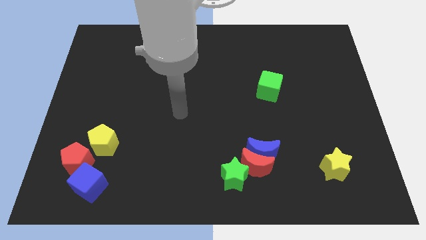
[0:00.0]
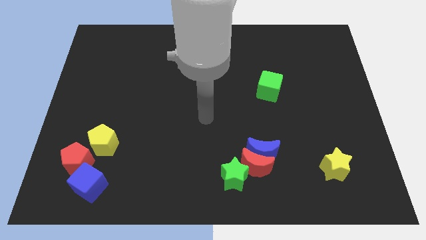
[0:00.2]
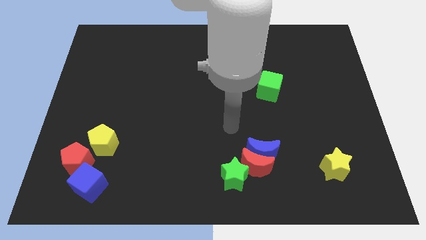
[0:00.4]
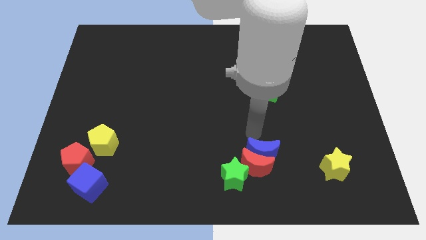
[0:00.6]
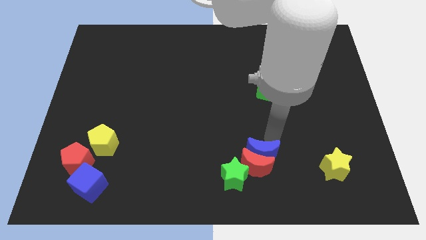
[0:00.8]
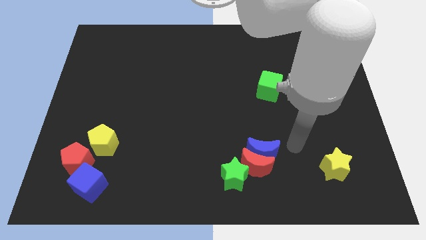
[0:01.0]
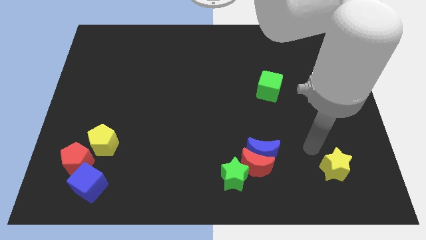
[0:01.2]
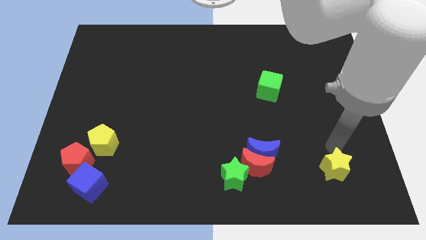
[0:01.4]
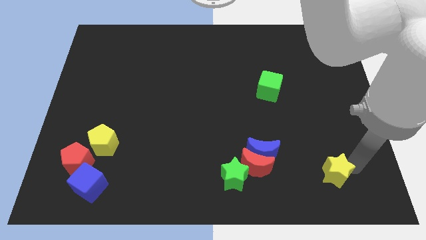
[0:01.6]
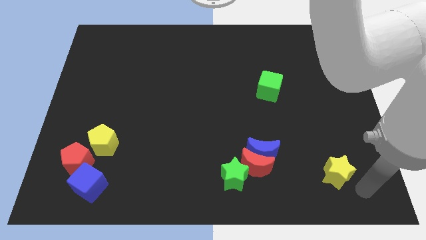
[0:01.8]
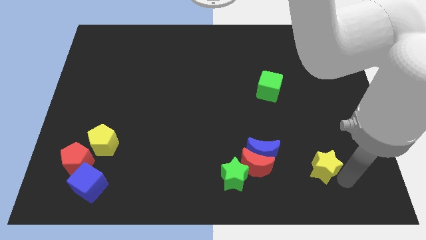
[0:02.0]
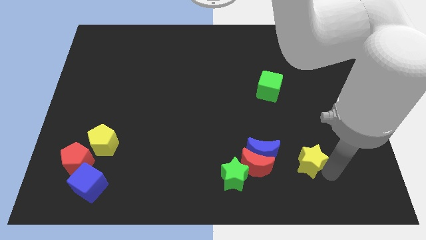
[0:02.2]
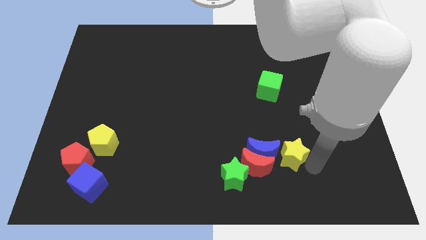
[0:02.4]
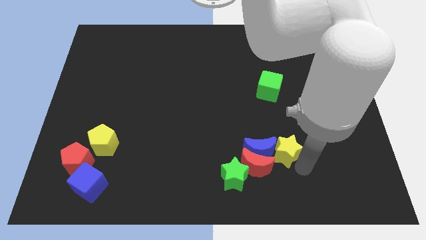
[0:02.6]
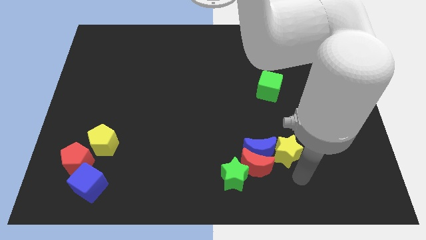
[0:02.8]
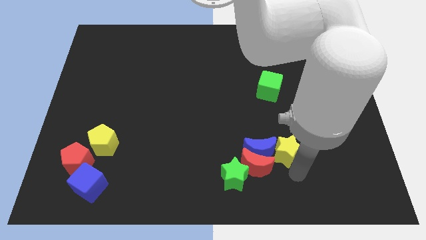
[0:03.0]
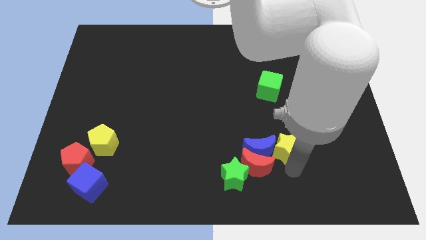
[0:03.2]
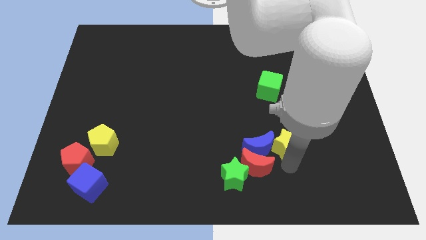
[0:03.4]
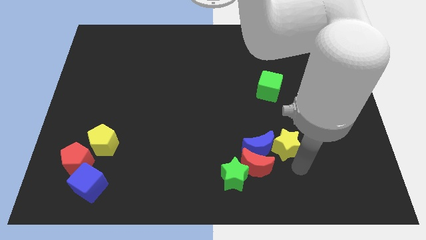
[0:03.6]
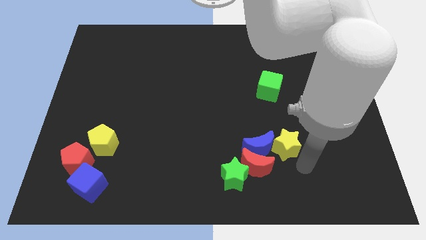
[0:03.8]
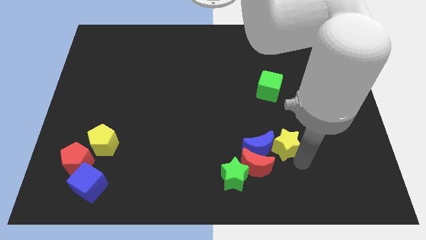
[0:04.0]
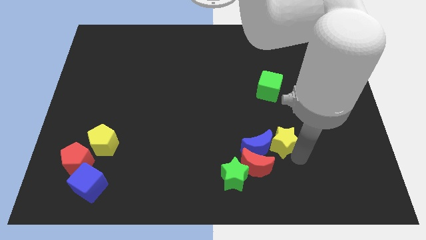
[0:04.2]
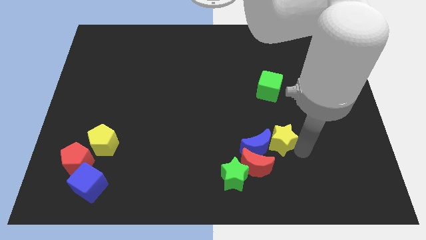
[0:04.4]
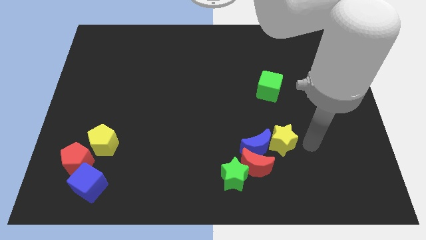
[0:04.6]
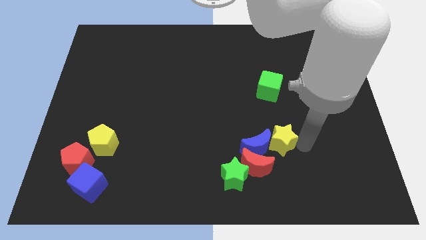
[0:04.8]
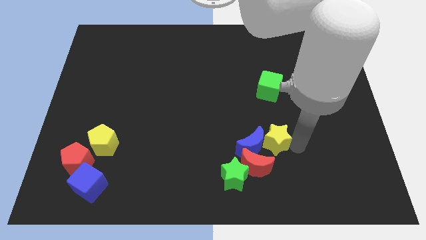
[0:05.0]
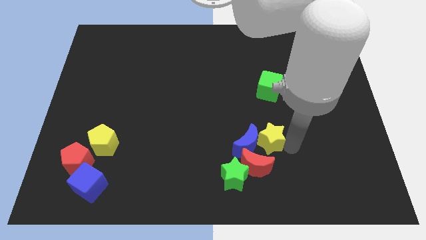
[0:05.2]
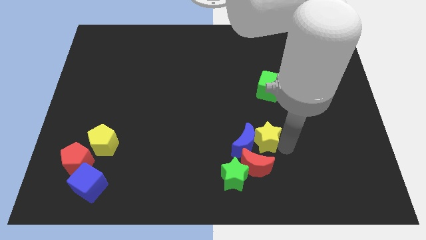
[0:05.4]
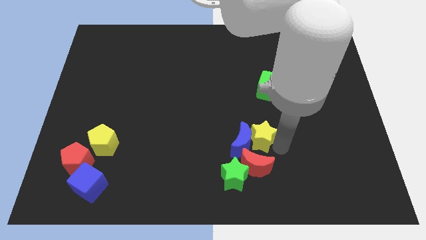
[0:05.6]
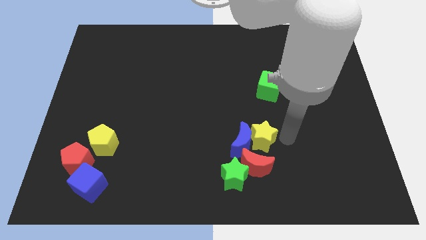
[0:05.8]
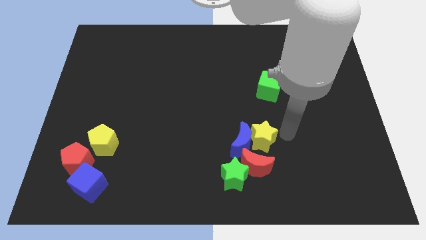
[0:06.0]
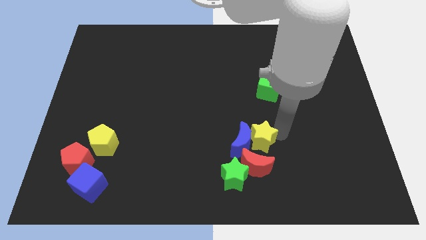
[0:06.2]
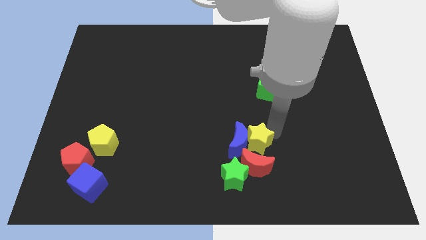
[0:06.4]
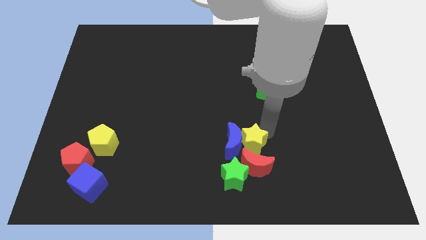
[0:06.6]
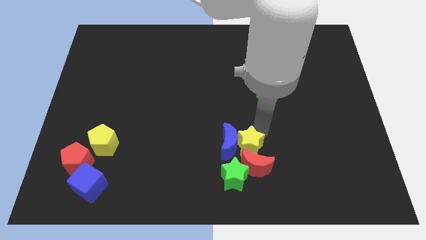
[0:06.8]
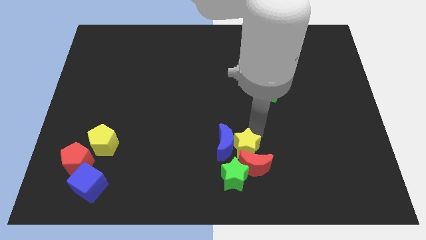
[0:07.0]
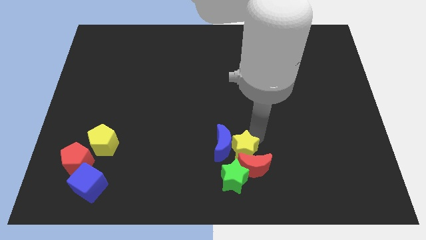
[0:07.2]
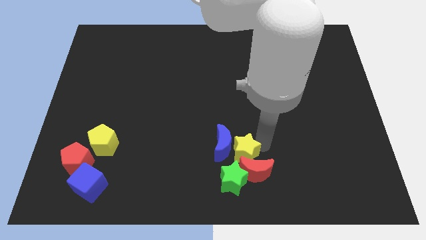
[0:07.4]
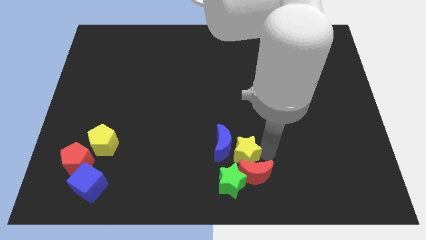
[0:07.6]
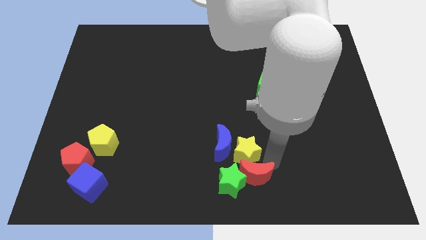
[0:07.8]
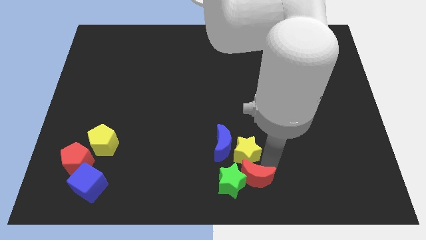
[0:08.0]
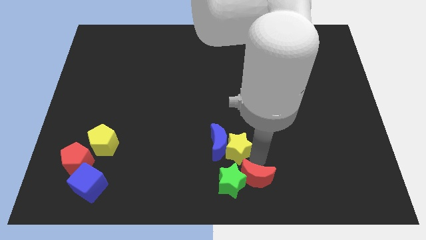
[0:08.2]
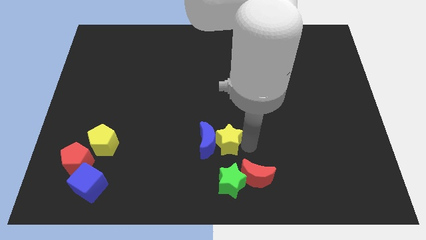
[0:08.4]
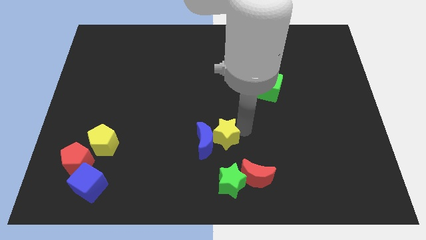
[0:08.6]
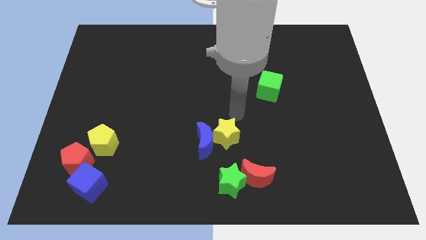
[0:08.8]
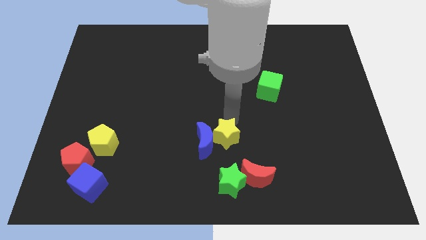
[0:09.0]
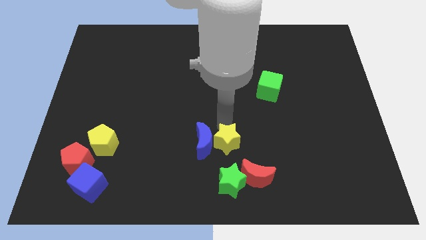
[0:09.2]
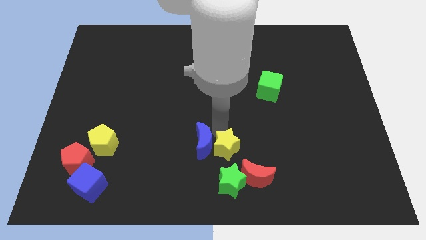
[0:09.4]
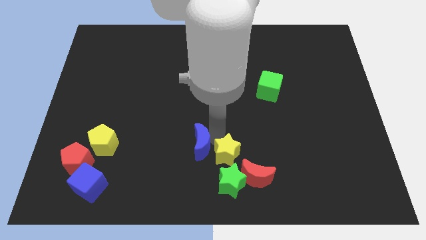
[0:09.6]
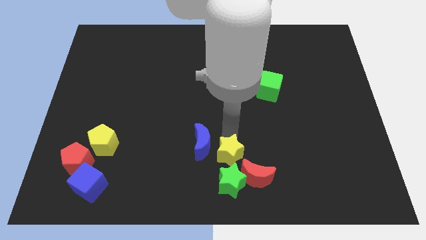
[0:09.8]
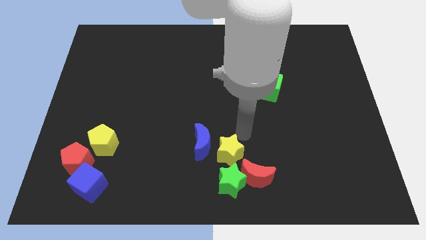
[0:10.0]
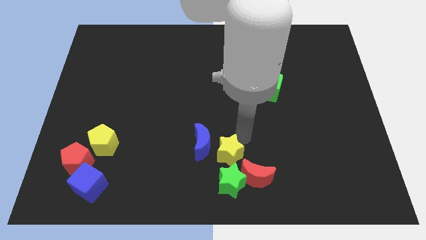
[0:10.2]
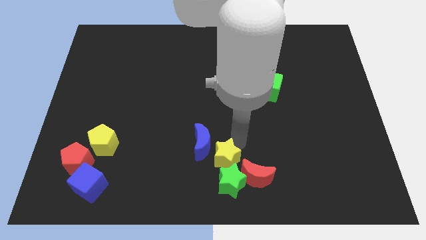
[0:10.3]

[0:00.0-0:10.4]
put the yellow star to the left side of the red moon

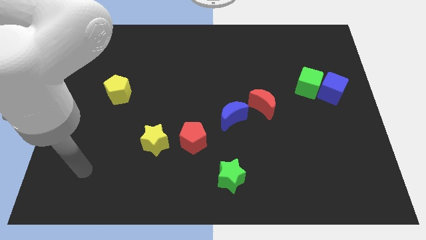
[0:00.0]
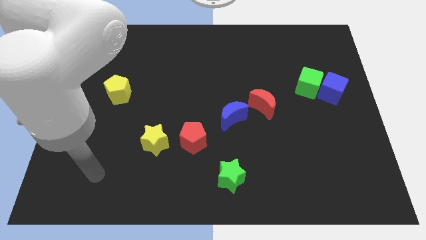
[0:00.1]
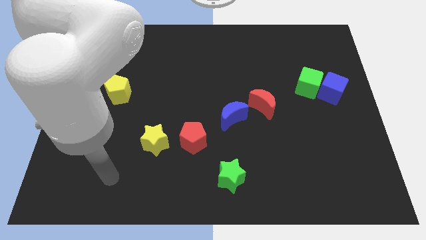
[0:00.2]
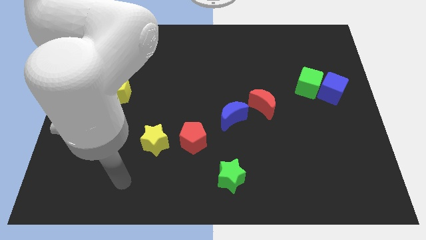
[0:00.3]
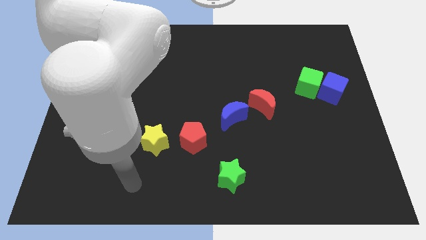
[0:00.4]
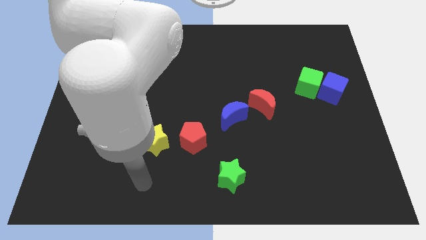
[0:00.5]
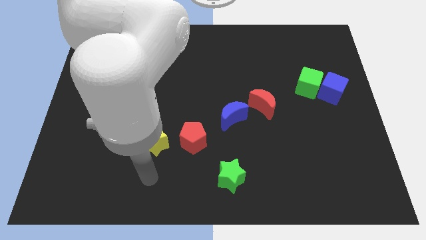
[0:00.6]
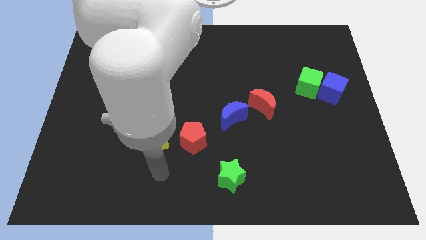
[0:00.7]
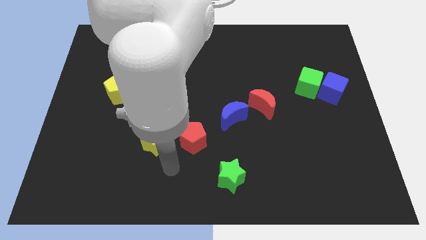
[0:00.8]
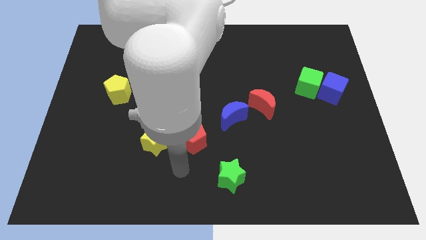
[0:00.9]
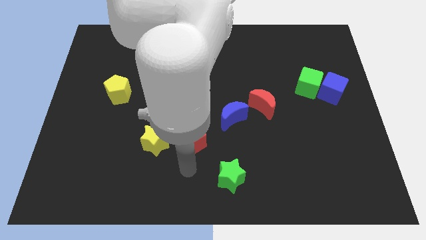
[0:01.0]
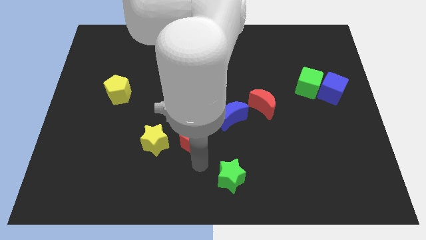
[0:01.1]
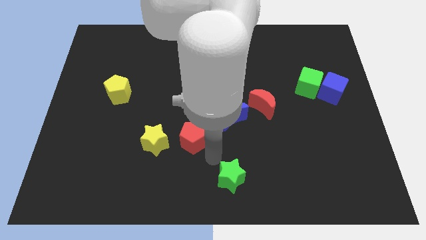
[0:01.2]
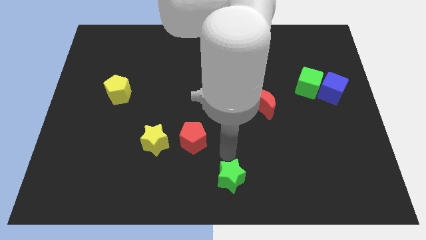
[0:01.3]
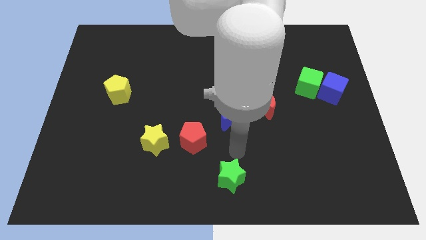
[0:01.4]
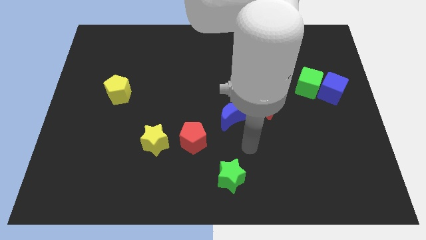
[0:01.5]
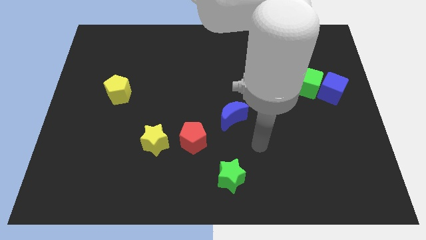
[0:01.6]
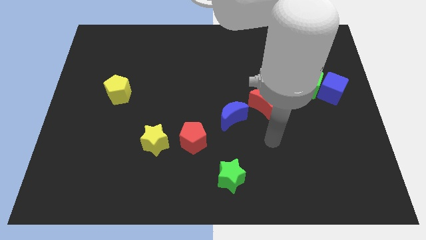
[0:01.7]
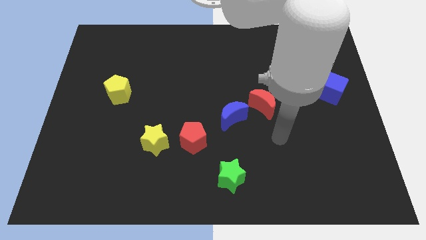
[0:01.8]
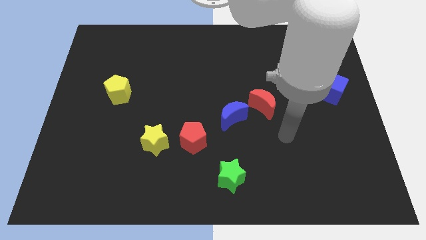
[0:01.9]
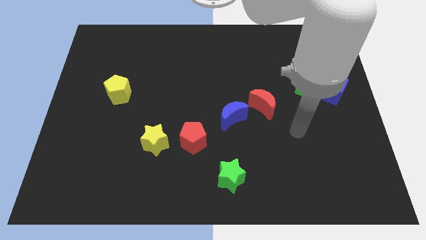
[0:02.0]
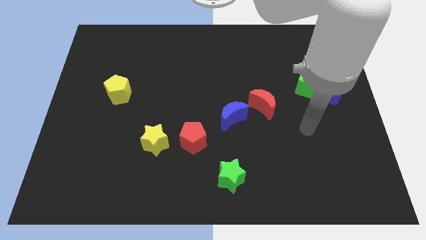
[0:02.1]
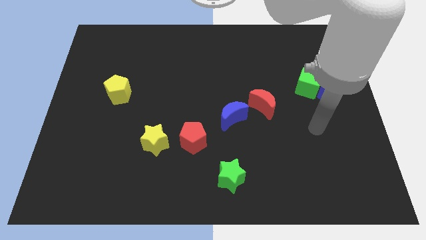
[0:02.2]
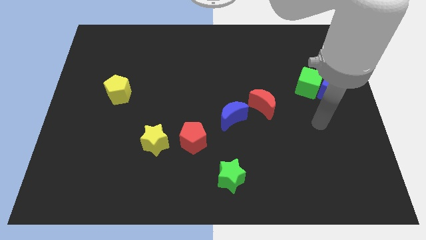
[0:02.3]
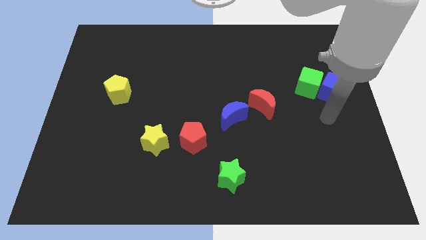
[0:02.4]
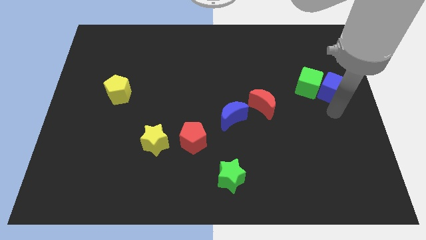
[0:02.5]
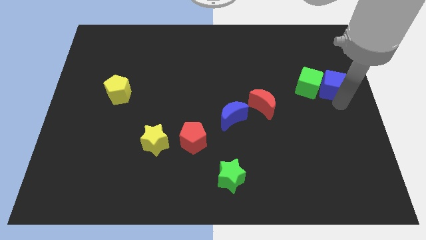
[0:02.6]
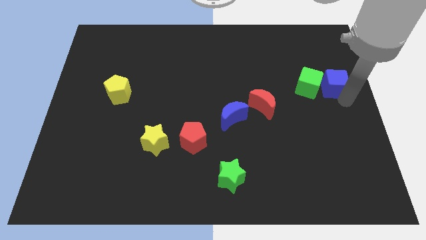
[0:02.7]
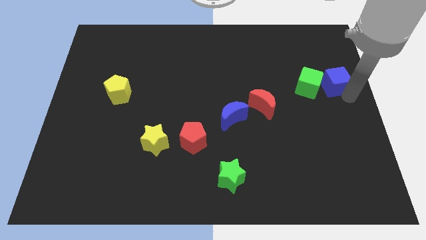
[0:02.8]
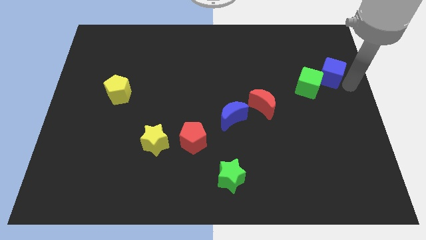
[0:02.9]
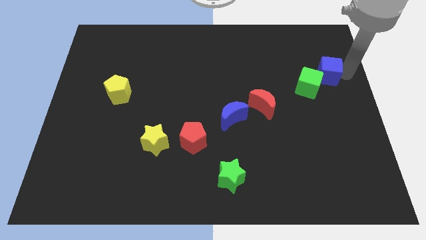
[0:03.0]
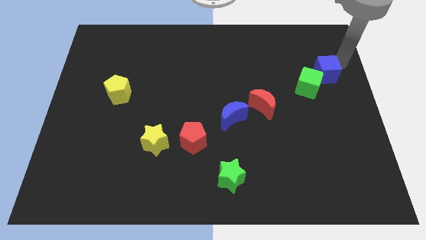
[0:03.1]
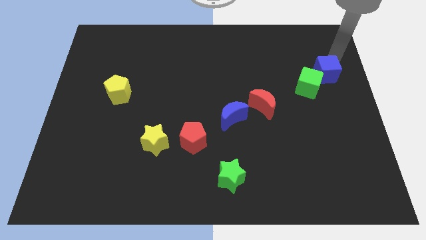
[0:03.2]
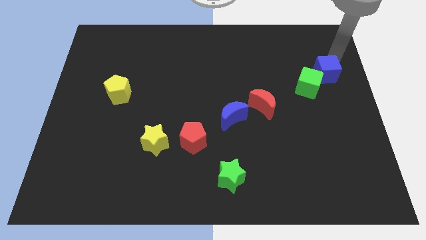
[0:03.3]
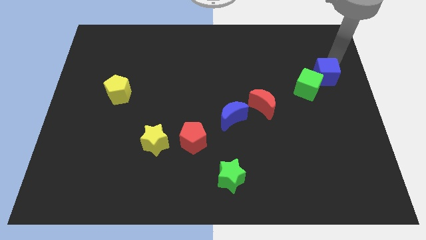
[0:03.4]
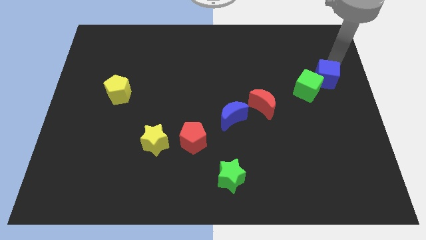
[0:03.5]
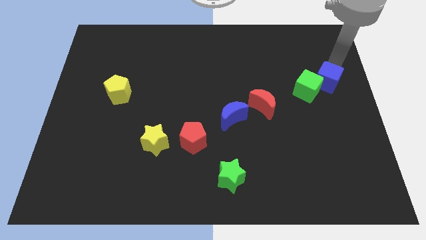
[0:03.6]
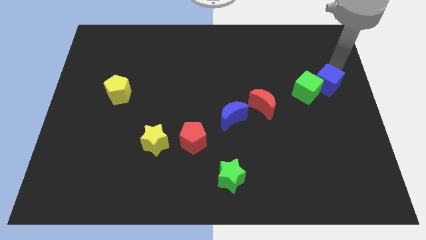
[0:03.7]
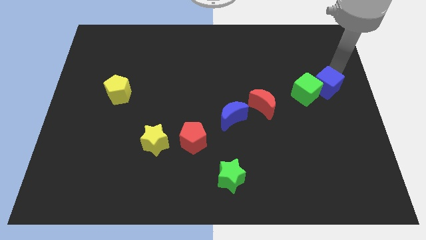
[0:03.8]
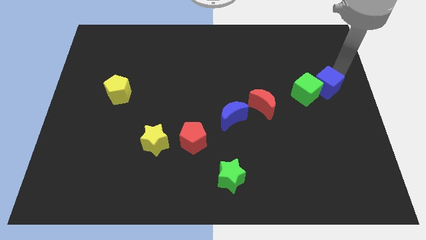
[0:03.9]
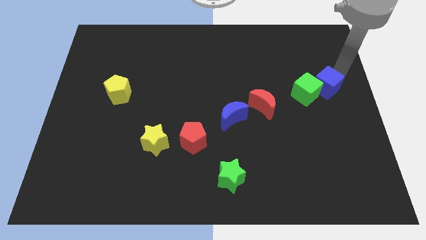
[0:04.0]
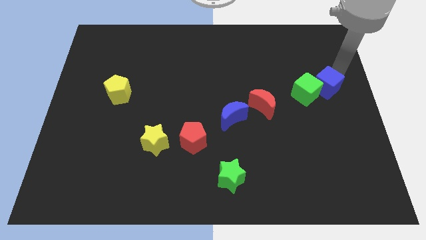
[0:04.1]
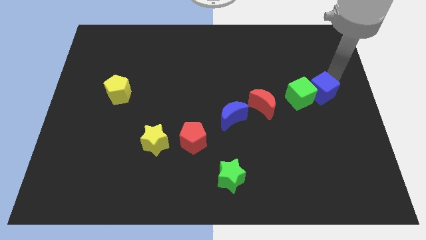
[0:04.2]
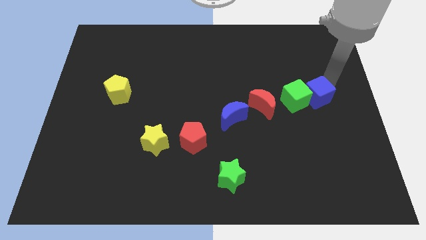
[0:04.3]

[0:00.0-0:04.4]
put the blue cube to the right side of the red moon
